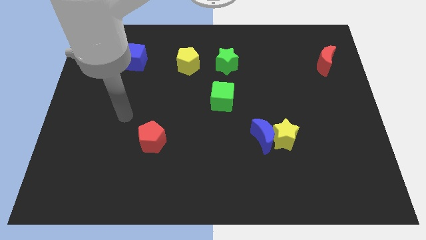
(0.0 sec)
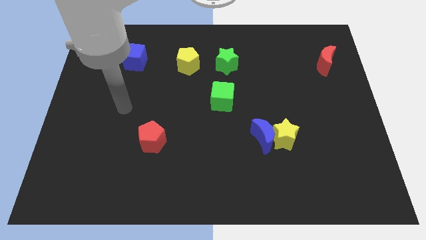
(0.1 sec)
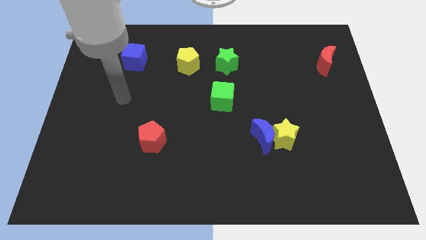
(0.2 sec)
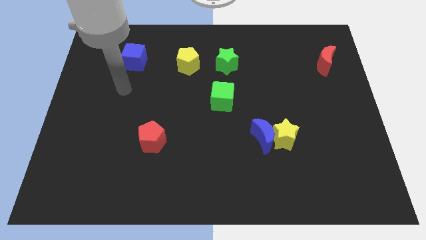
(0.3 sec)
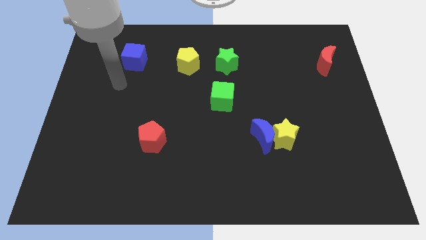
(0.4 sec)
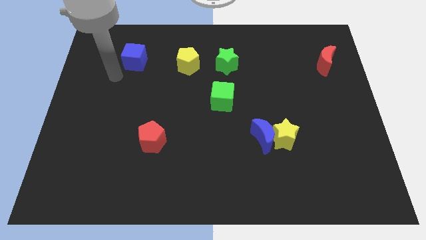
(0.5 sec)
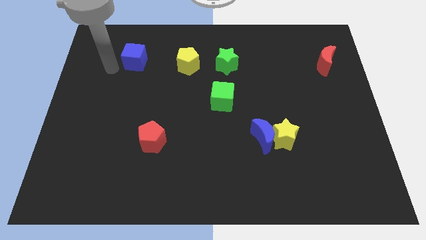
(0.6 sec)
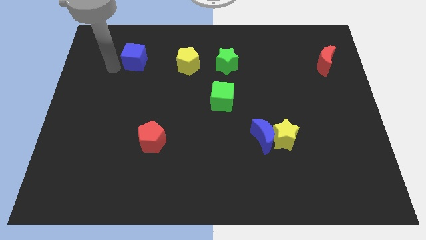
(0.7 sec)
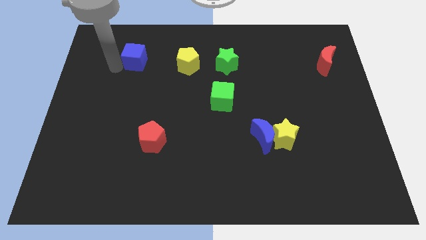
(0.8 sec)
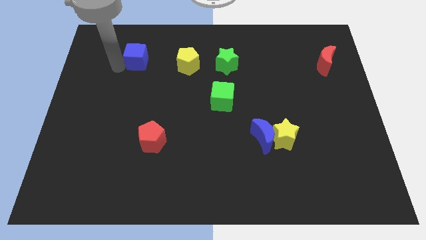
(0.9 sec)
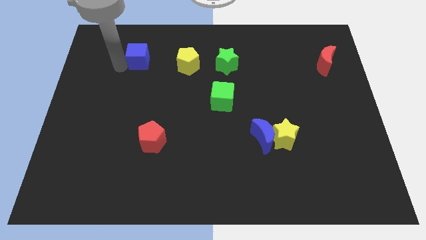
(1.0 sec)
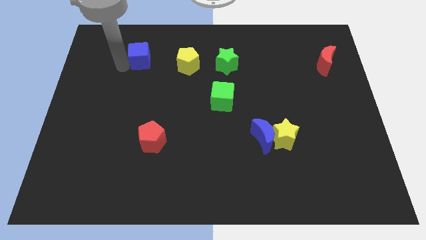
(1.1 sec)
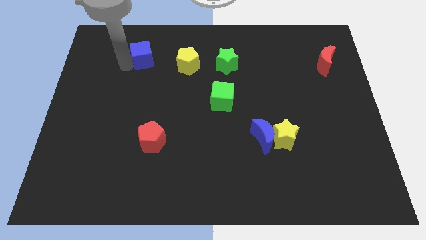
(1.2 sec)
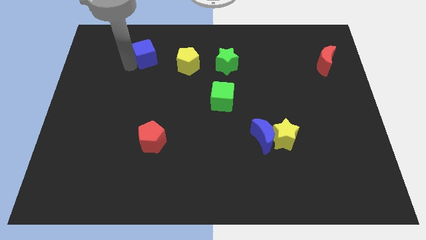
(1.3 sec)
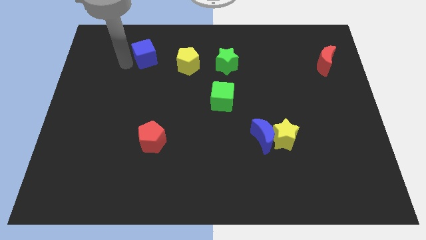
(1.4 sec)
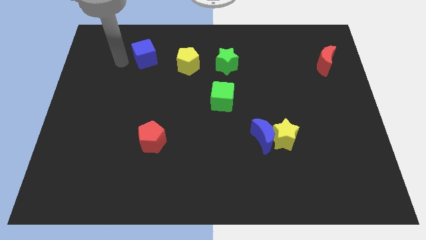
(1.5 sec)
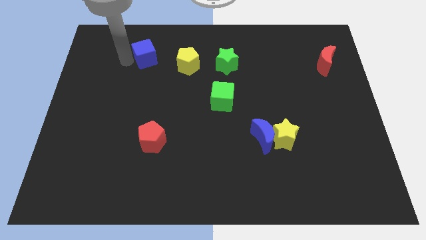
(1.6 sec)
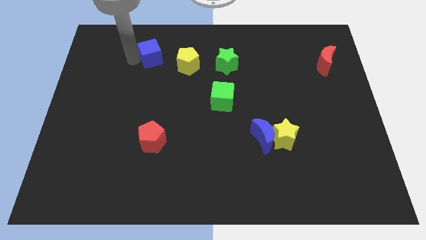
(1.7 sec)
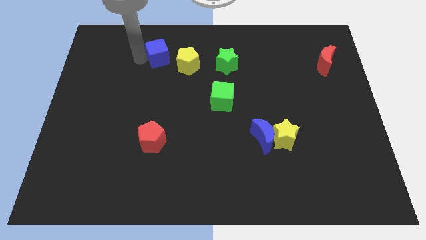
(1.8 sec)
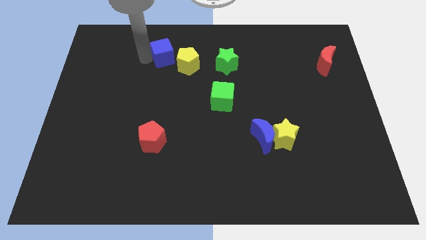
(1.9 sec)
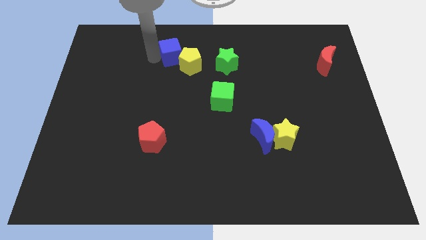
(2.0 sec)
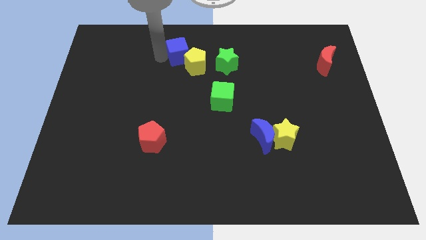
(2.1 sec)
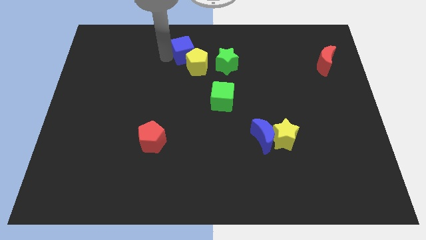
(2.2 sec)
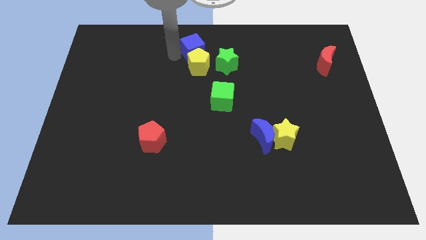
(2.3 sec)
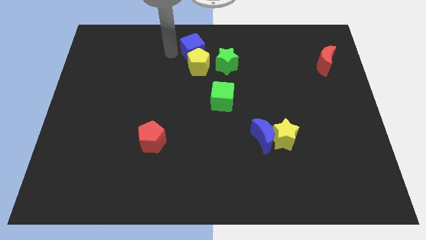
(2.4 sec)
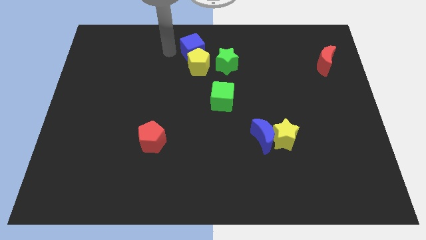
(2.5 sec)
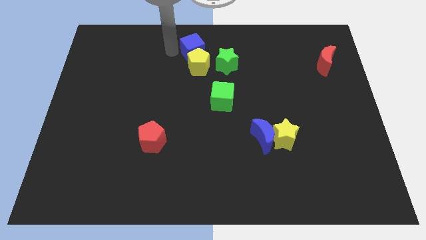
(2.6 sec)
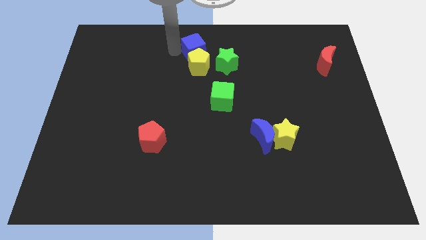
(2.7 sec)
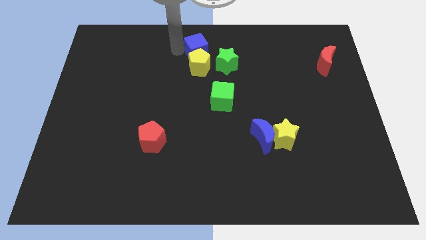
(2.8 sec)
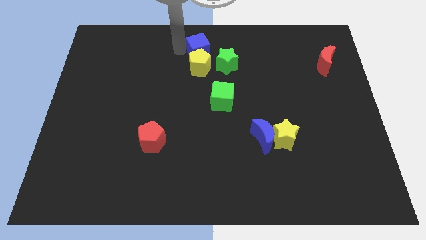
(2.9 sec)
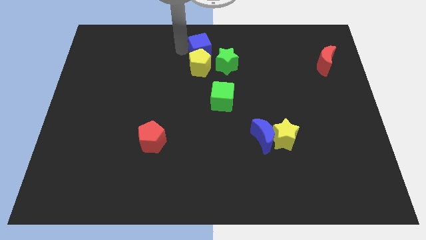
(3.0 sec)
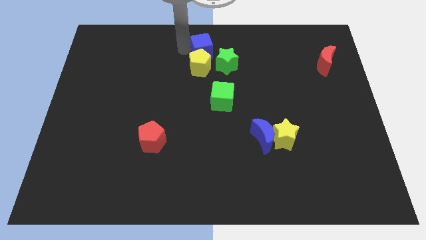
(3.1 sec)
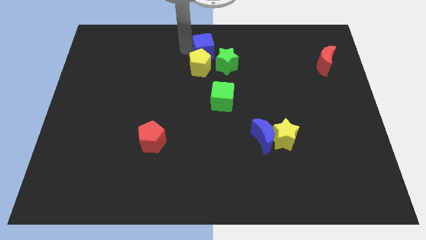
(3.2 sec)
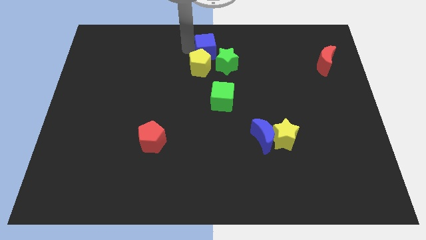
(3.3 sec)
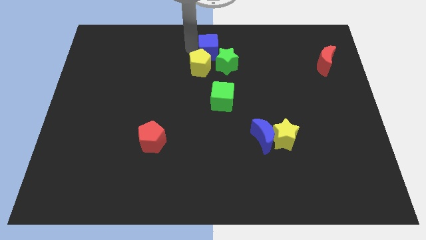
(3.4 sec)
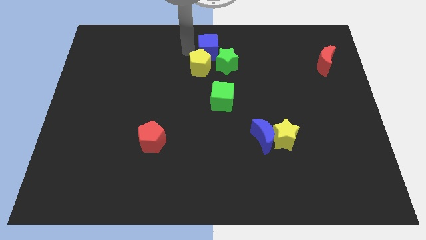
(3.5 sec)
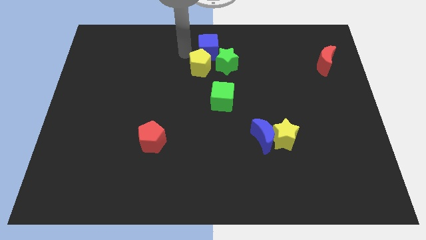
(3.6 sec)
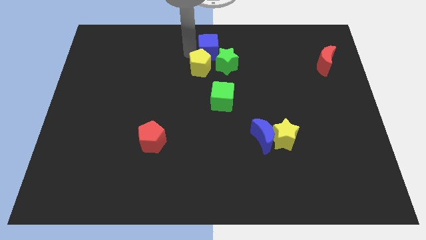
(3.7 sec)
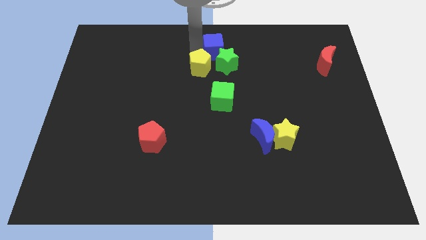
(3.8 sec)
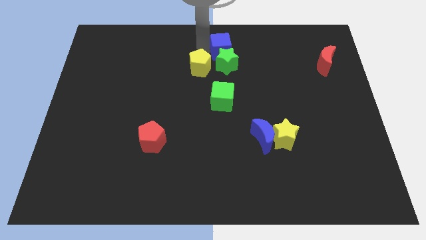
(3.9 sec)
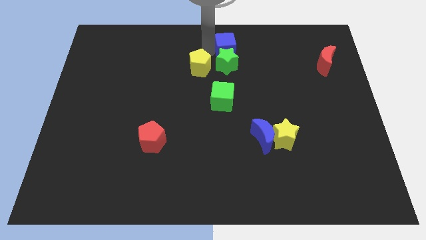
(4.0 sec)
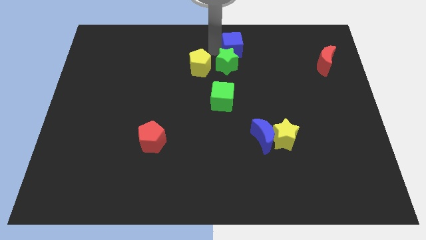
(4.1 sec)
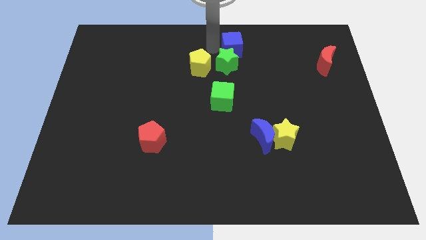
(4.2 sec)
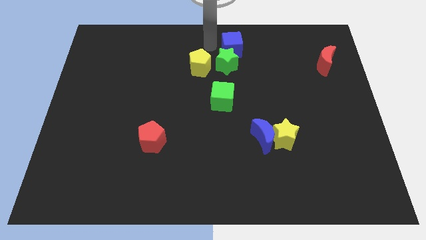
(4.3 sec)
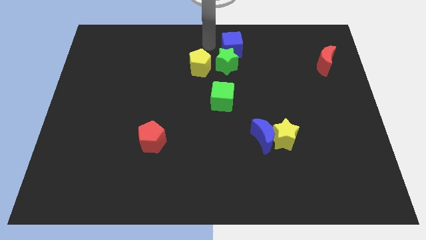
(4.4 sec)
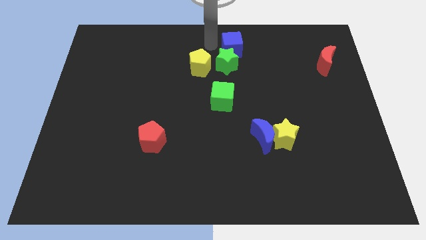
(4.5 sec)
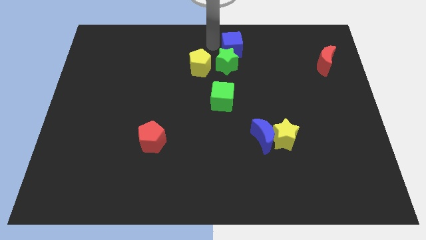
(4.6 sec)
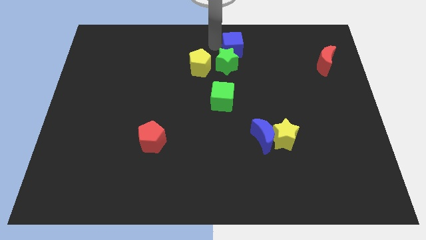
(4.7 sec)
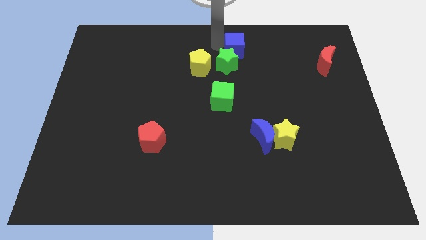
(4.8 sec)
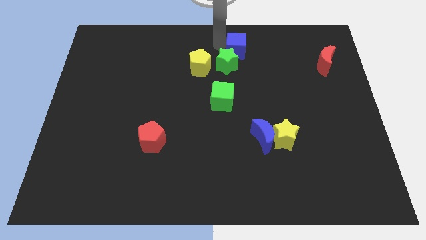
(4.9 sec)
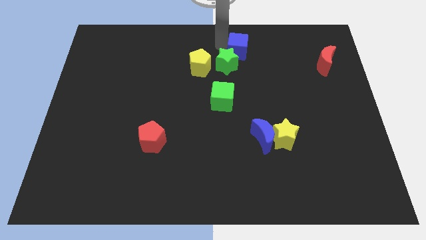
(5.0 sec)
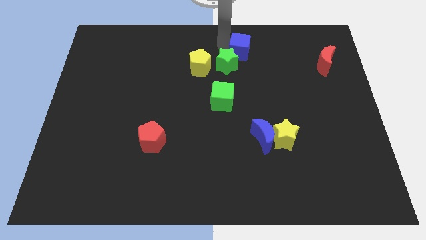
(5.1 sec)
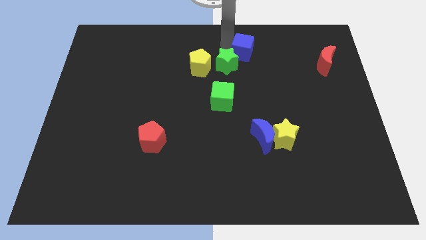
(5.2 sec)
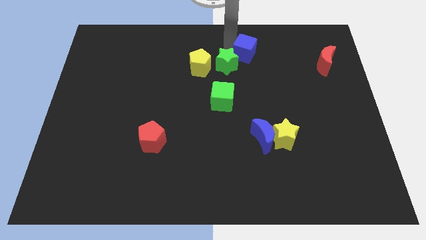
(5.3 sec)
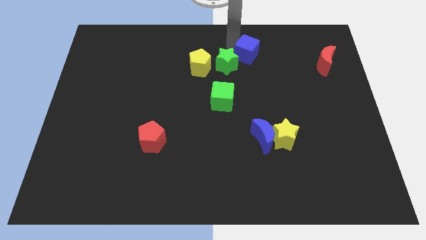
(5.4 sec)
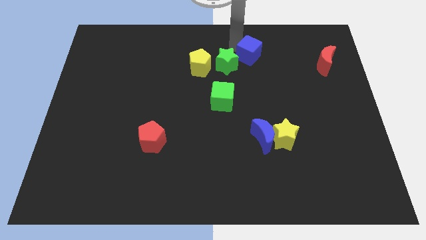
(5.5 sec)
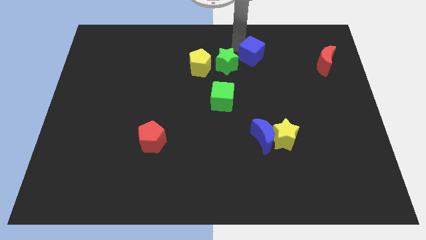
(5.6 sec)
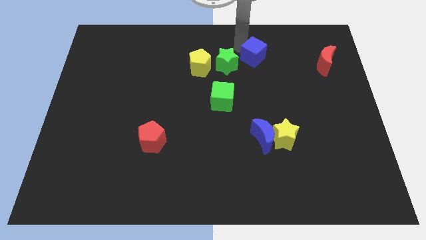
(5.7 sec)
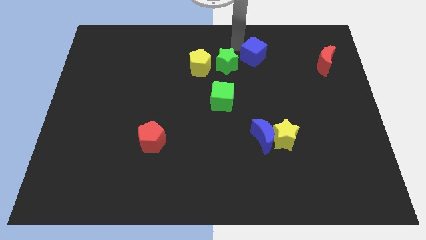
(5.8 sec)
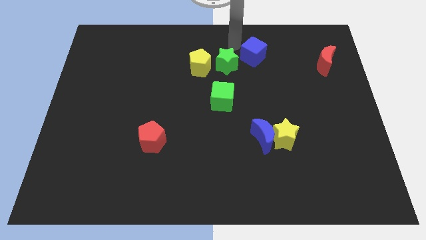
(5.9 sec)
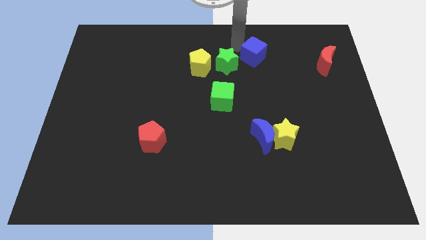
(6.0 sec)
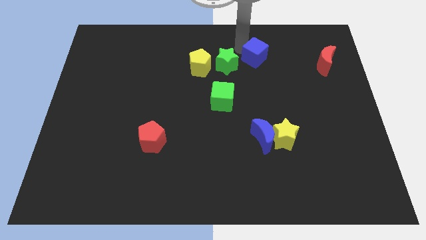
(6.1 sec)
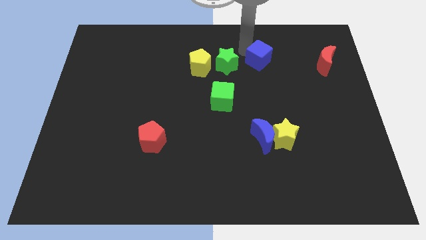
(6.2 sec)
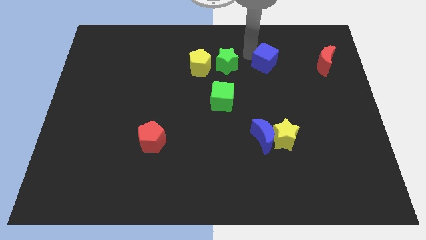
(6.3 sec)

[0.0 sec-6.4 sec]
put the blue cube to the left of the red moon
